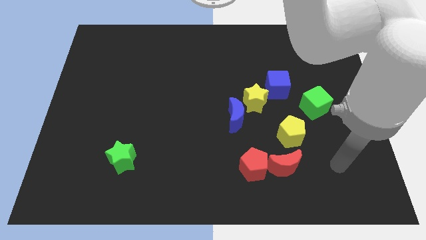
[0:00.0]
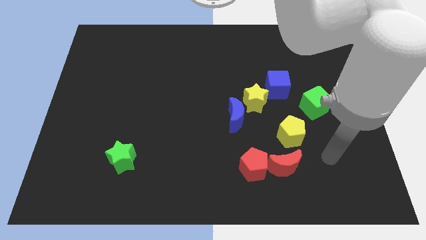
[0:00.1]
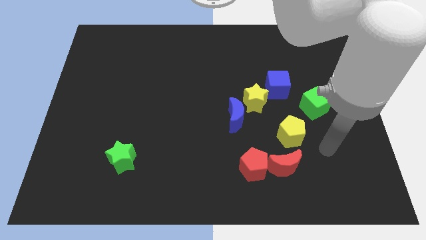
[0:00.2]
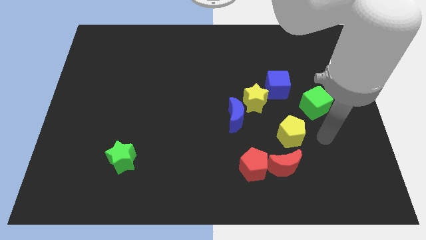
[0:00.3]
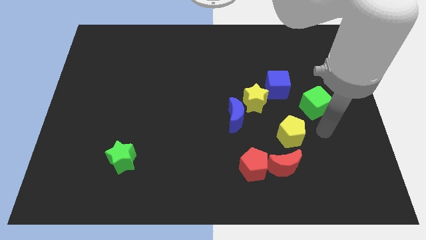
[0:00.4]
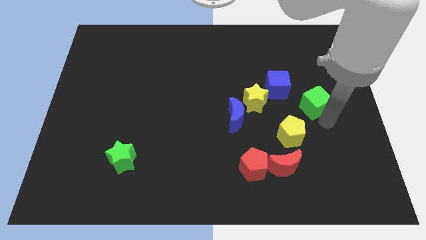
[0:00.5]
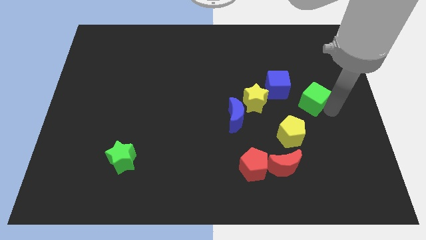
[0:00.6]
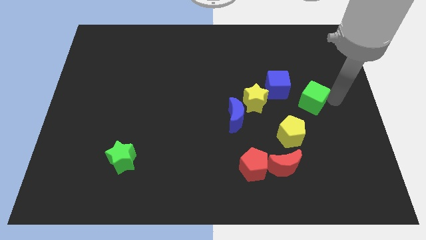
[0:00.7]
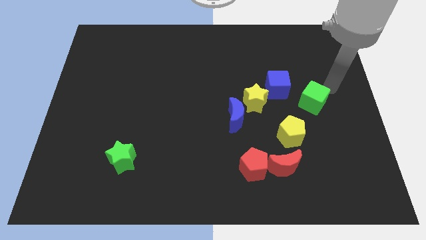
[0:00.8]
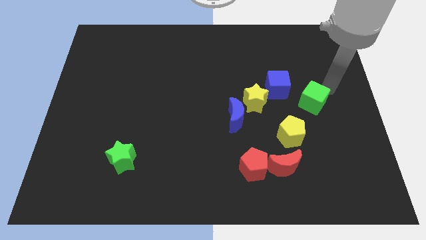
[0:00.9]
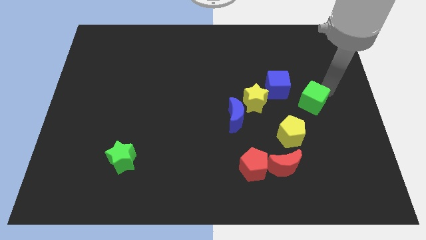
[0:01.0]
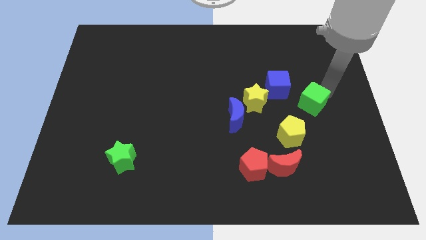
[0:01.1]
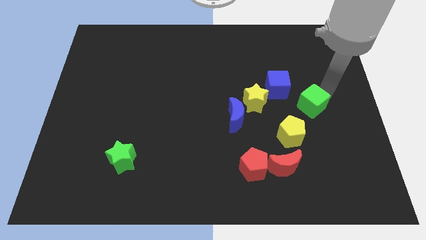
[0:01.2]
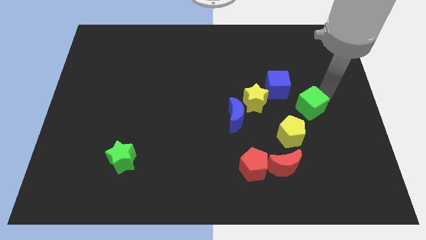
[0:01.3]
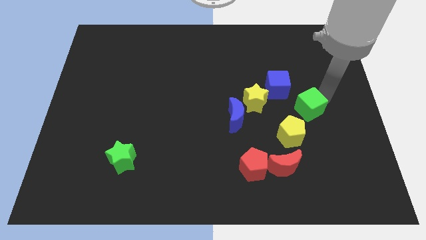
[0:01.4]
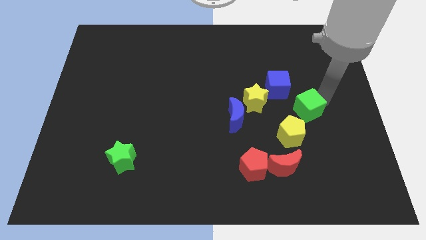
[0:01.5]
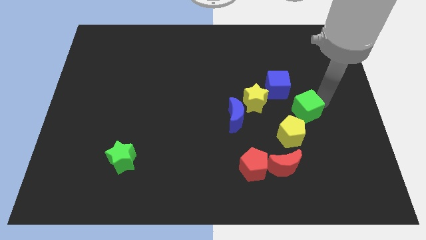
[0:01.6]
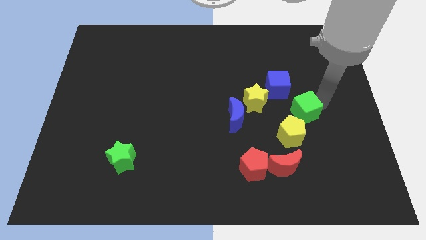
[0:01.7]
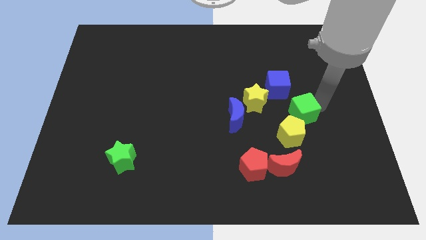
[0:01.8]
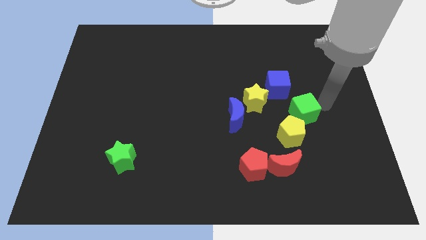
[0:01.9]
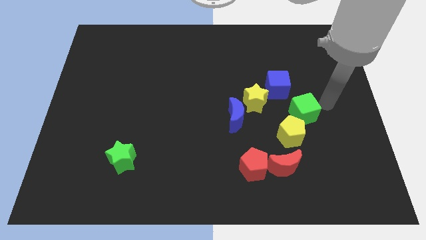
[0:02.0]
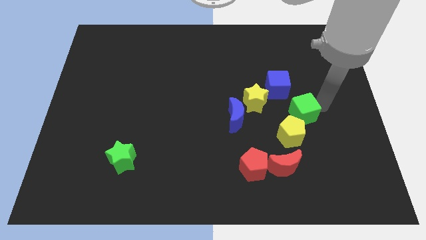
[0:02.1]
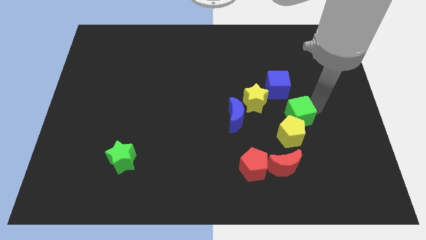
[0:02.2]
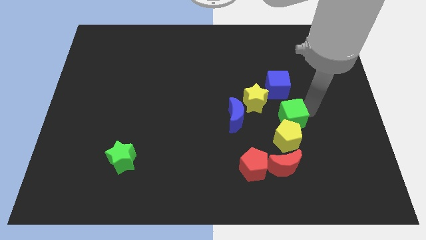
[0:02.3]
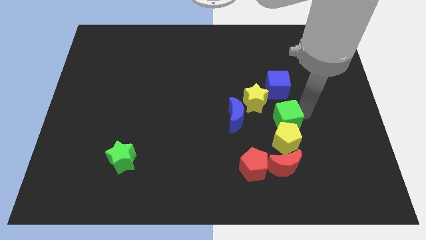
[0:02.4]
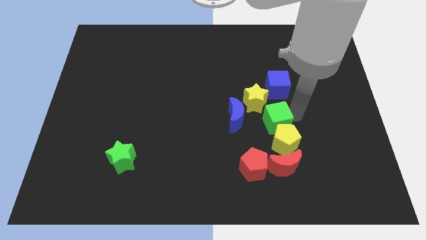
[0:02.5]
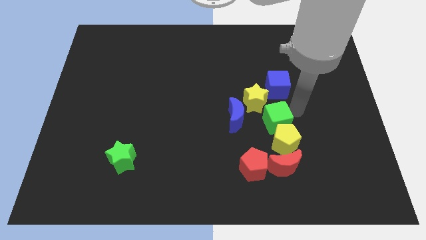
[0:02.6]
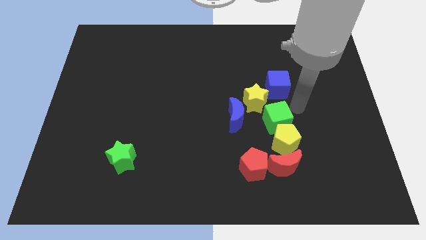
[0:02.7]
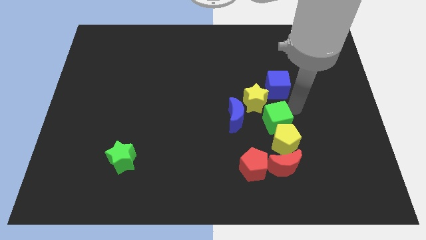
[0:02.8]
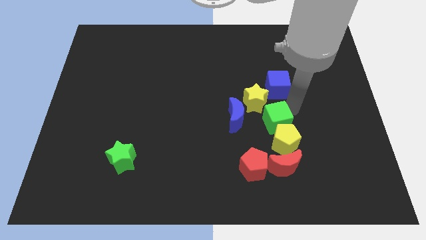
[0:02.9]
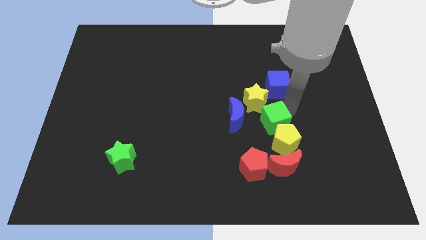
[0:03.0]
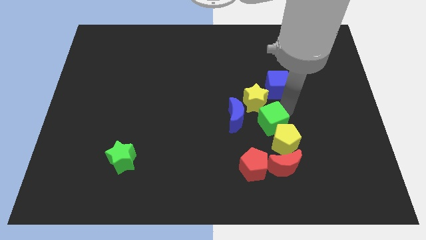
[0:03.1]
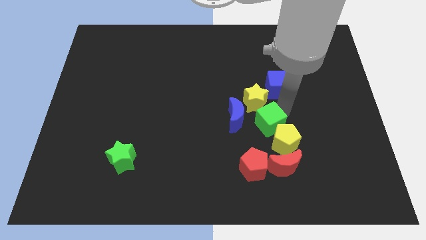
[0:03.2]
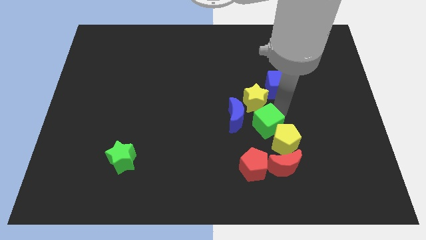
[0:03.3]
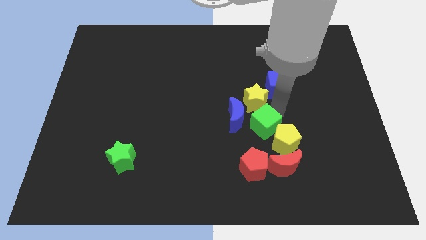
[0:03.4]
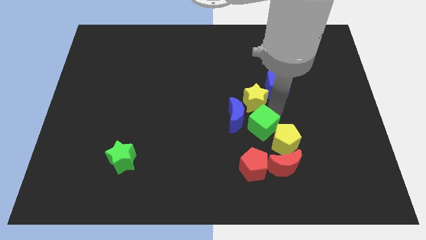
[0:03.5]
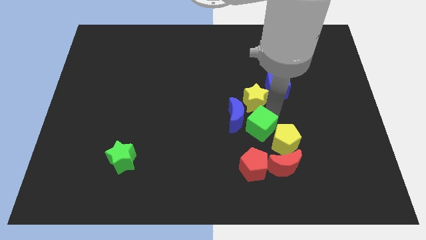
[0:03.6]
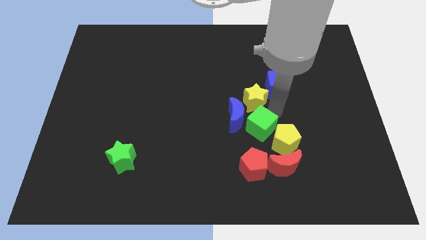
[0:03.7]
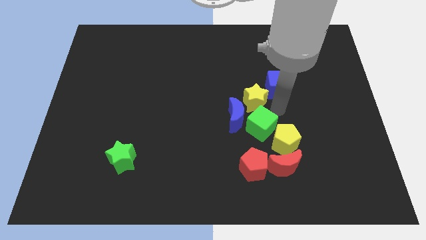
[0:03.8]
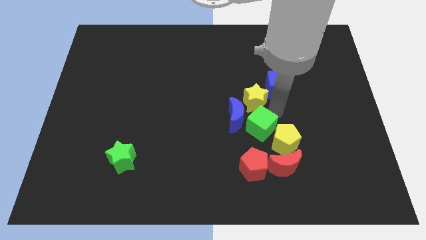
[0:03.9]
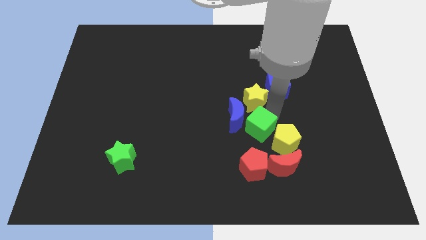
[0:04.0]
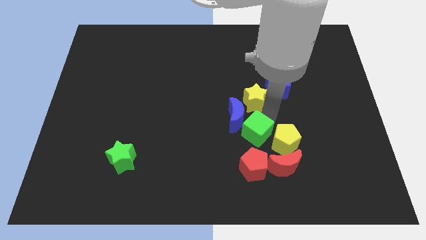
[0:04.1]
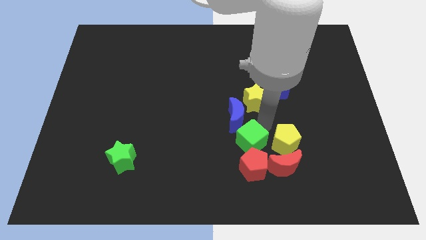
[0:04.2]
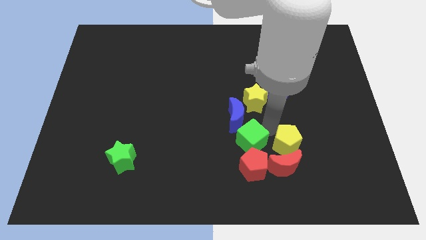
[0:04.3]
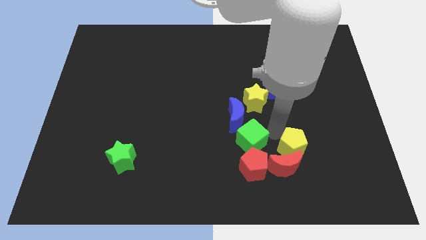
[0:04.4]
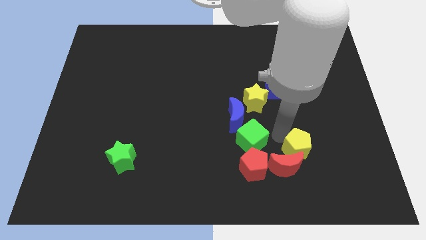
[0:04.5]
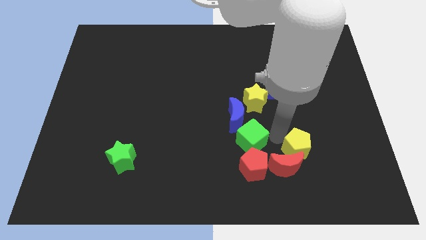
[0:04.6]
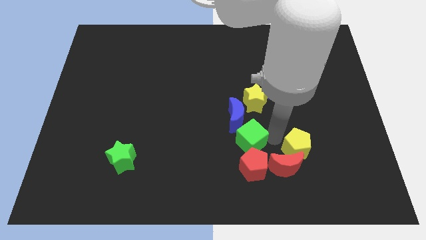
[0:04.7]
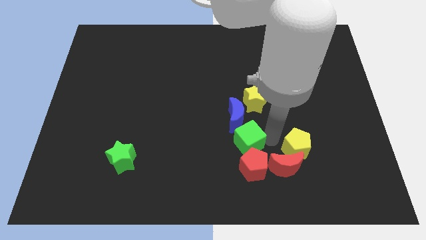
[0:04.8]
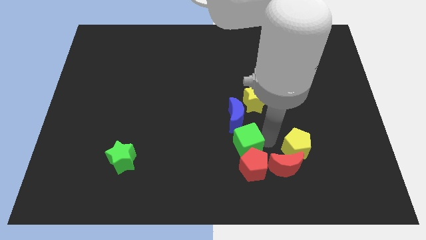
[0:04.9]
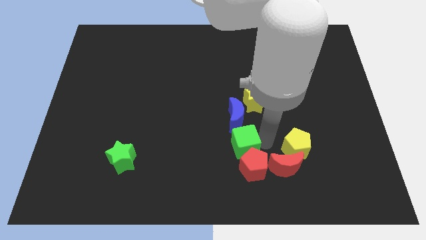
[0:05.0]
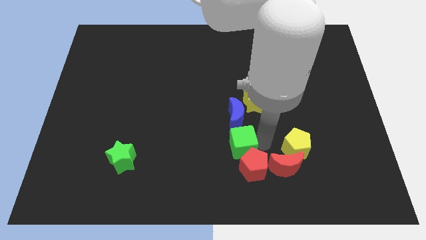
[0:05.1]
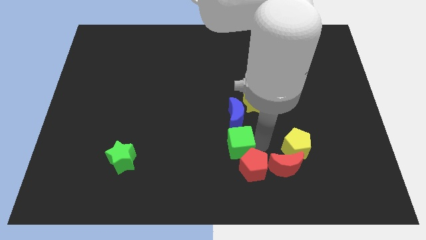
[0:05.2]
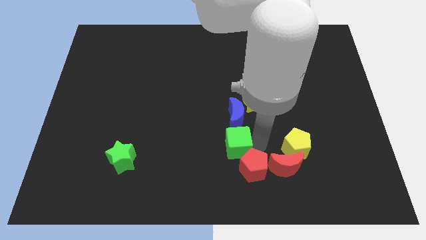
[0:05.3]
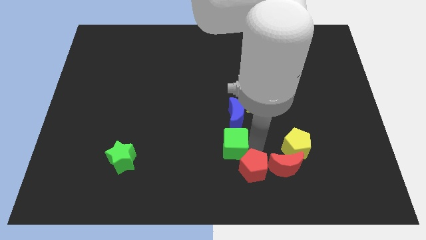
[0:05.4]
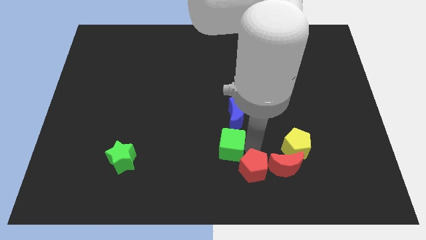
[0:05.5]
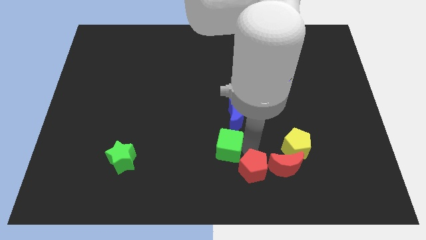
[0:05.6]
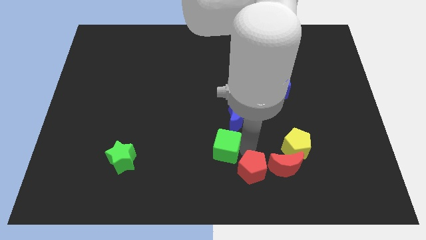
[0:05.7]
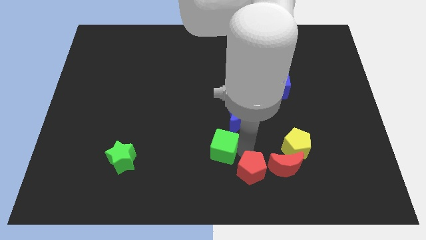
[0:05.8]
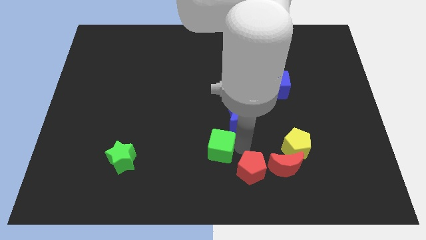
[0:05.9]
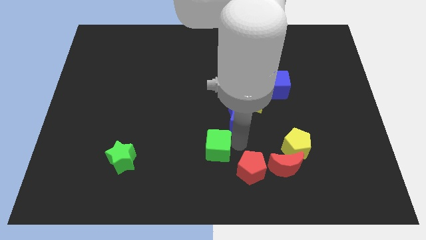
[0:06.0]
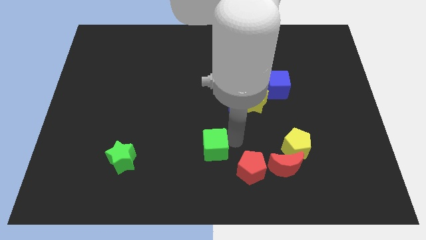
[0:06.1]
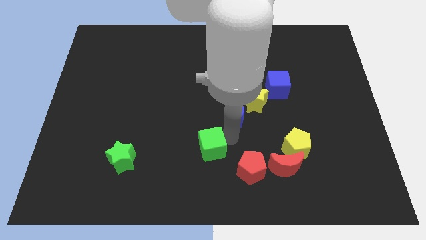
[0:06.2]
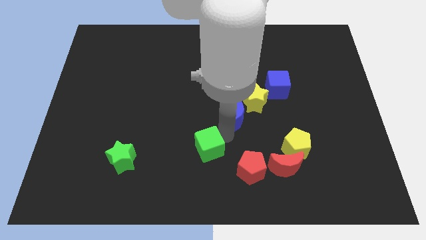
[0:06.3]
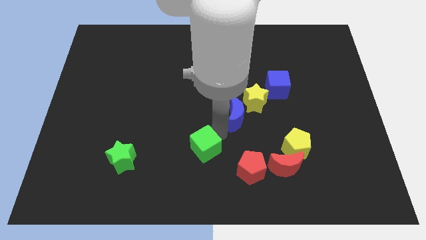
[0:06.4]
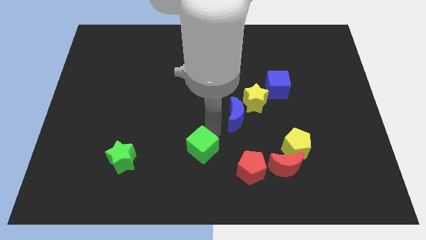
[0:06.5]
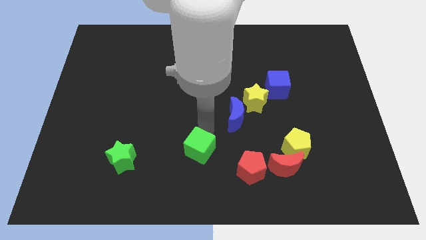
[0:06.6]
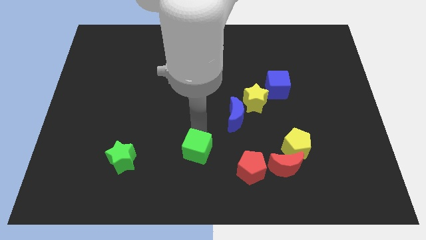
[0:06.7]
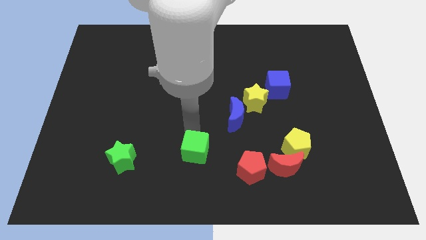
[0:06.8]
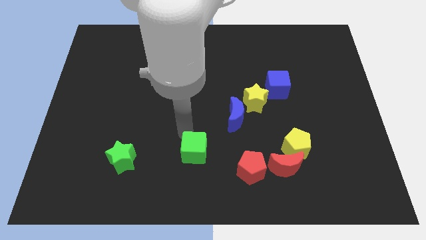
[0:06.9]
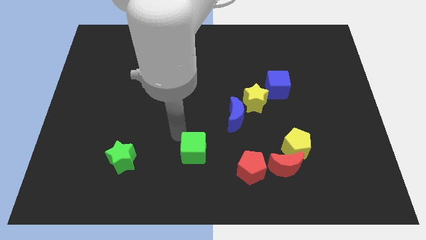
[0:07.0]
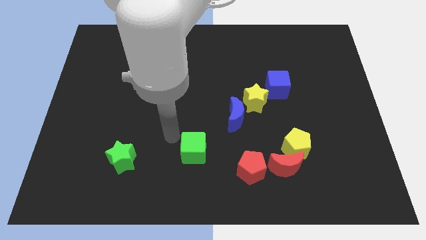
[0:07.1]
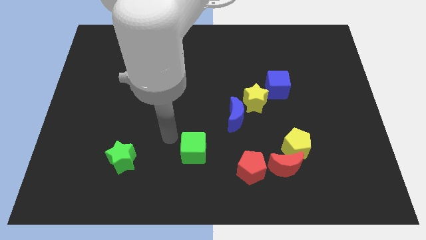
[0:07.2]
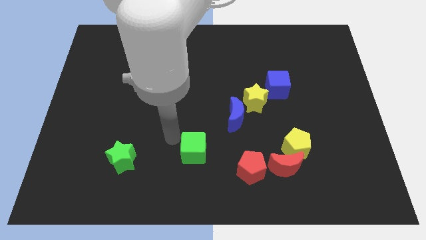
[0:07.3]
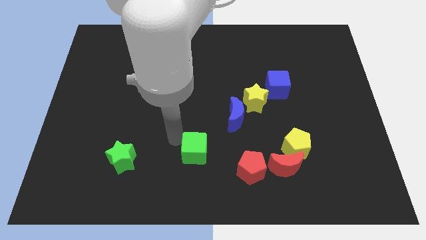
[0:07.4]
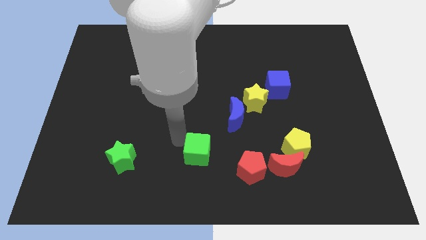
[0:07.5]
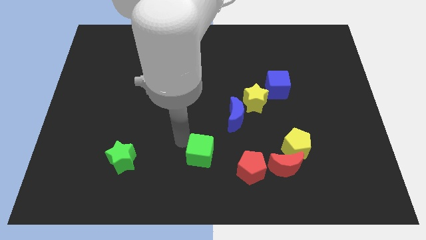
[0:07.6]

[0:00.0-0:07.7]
slide the green cube to the bottom side

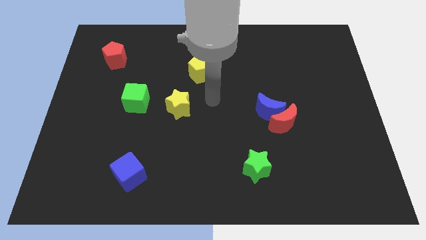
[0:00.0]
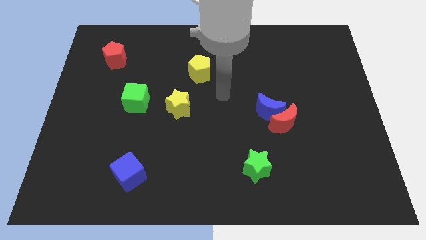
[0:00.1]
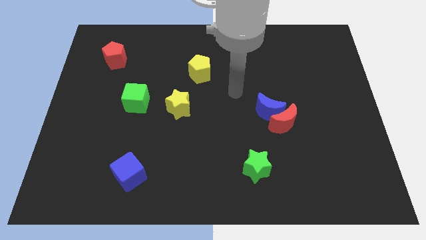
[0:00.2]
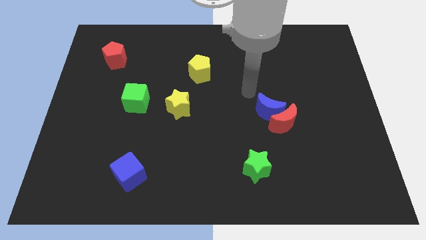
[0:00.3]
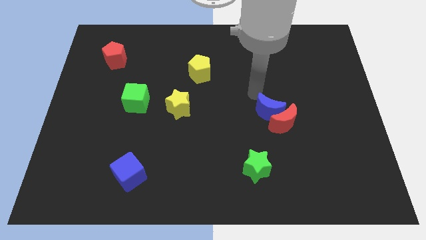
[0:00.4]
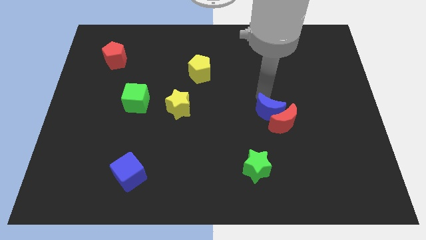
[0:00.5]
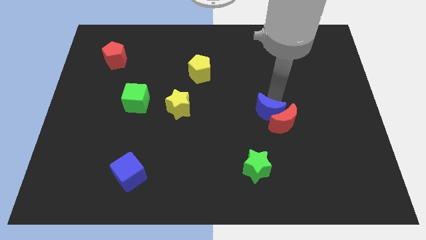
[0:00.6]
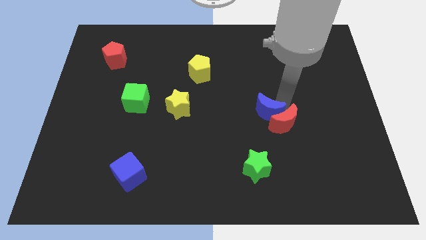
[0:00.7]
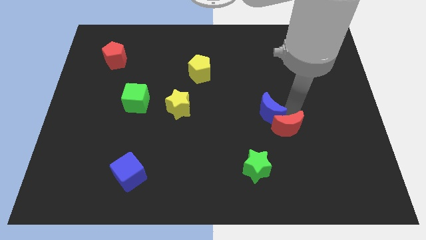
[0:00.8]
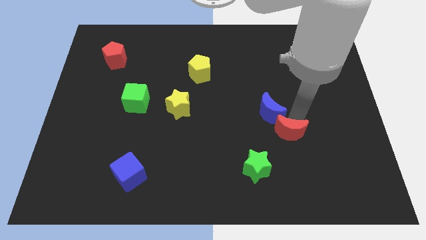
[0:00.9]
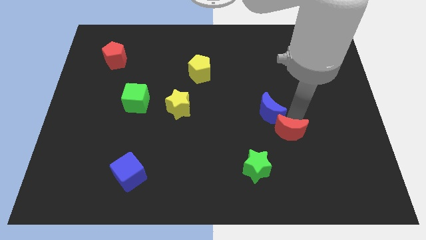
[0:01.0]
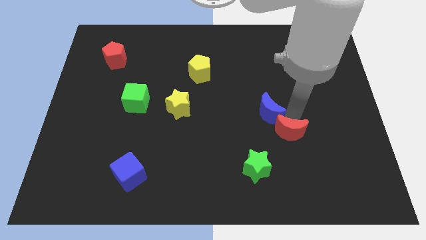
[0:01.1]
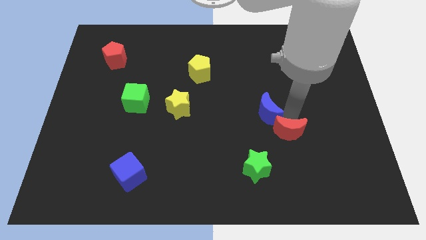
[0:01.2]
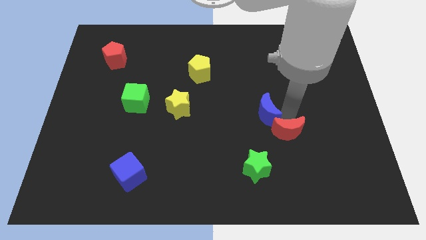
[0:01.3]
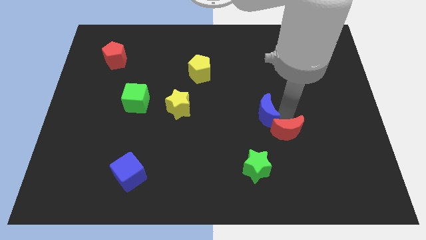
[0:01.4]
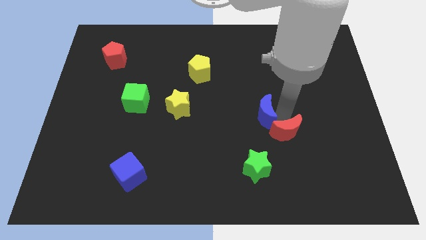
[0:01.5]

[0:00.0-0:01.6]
move the blue moon to the center
